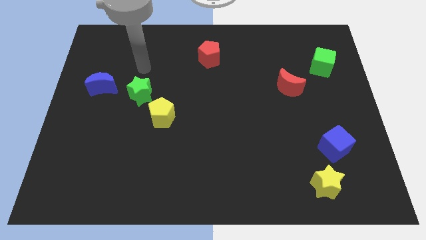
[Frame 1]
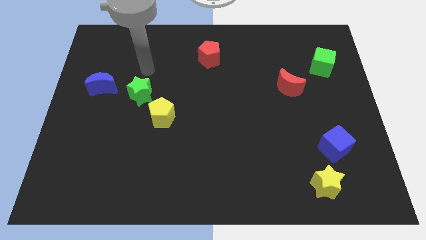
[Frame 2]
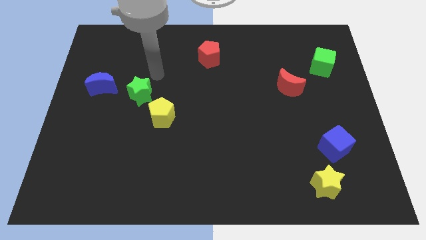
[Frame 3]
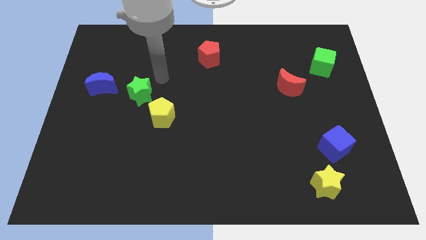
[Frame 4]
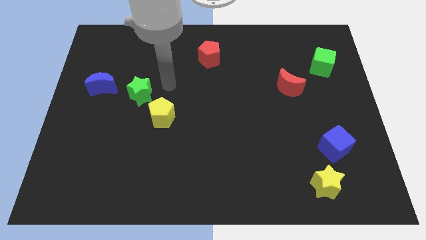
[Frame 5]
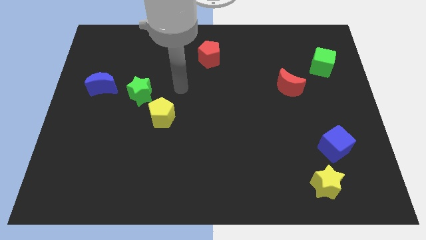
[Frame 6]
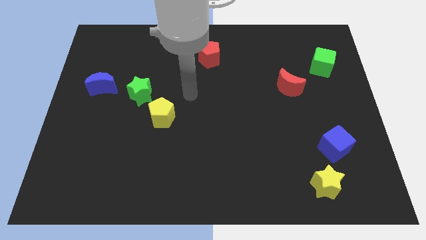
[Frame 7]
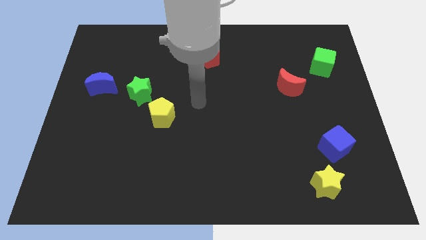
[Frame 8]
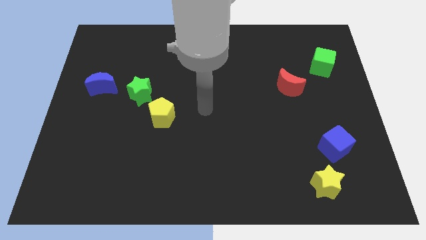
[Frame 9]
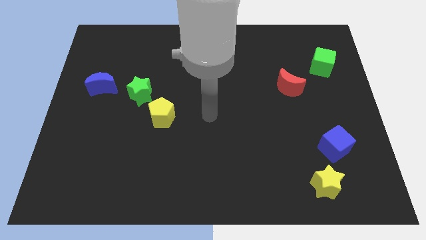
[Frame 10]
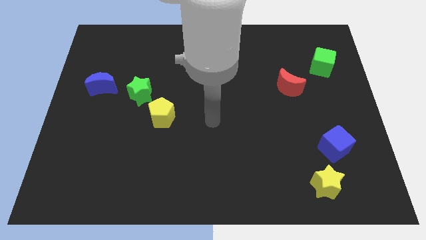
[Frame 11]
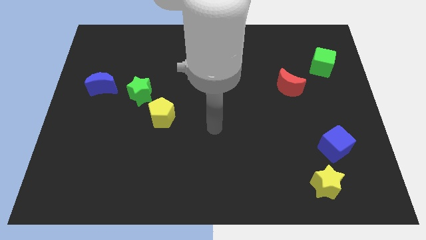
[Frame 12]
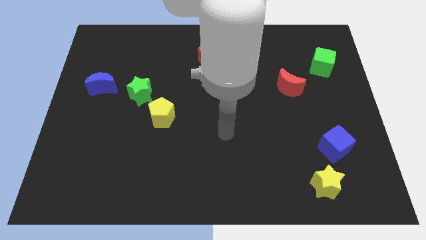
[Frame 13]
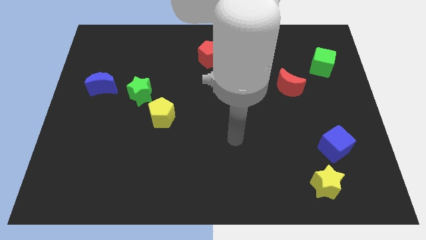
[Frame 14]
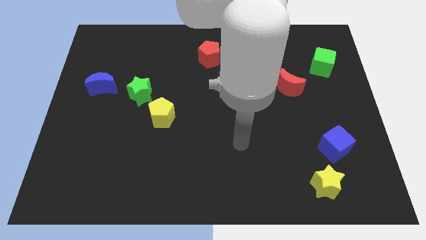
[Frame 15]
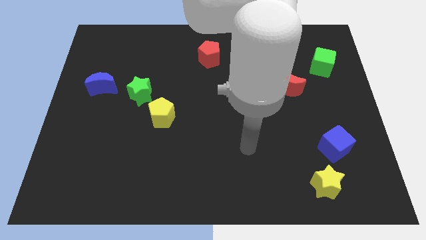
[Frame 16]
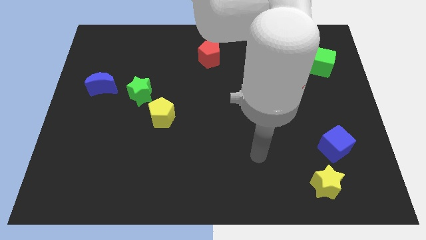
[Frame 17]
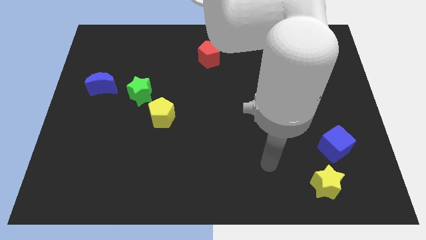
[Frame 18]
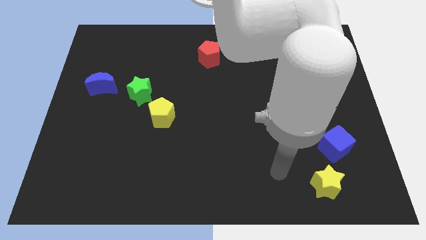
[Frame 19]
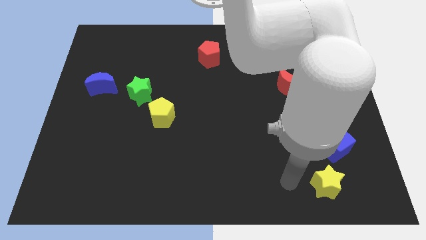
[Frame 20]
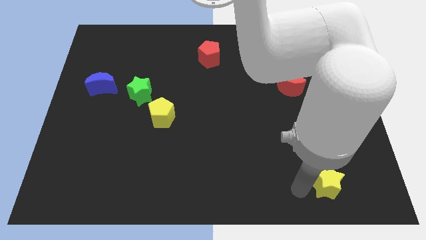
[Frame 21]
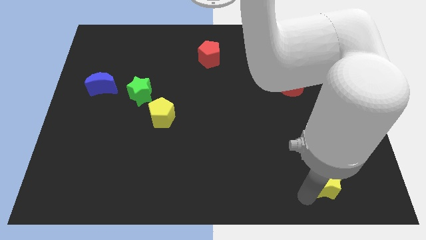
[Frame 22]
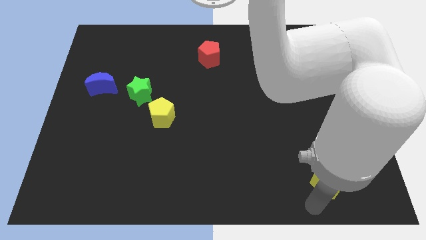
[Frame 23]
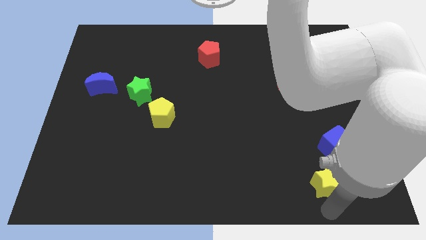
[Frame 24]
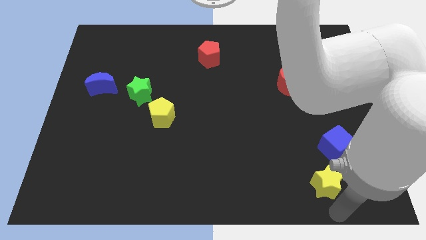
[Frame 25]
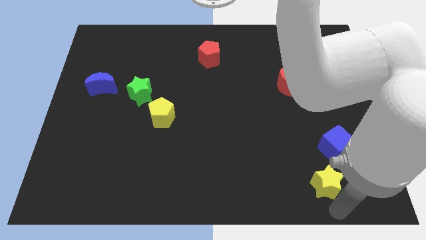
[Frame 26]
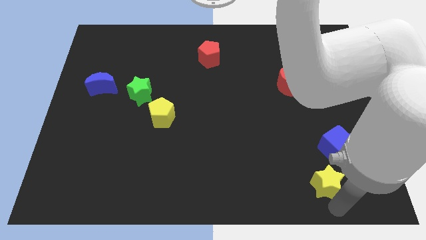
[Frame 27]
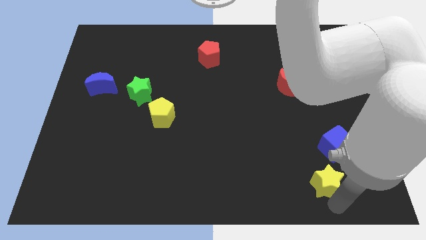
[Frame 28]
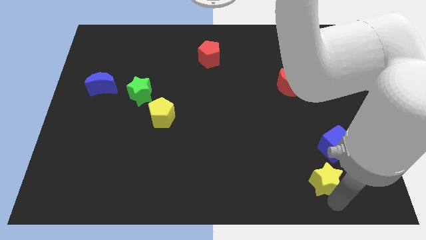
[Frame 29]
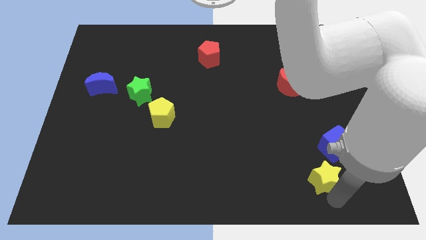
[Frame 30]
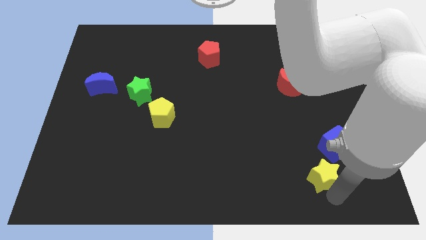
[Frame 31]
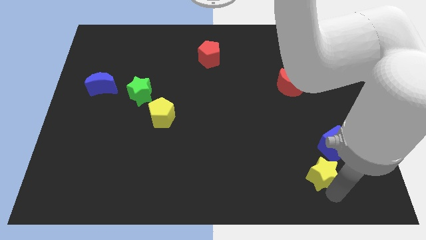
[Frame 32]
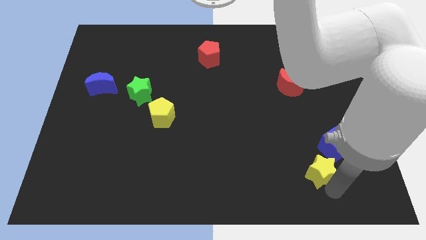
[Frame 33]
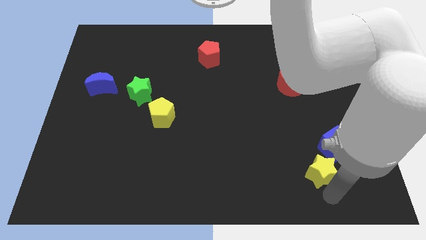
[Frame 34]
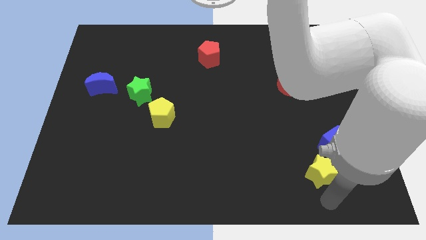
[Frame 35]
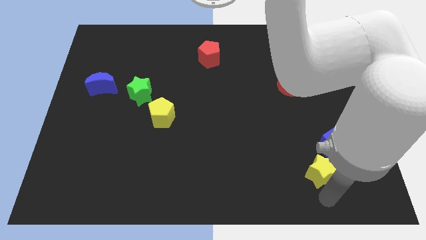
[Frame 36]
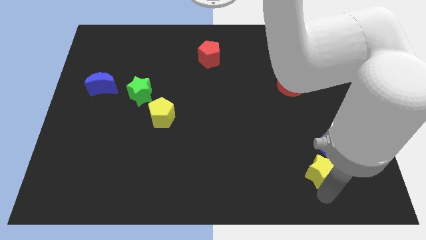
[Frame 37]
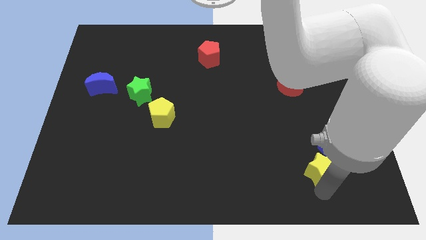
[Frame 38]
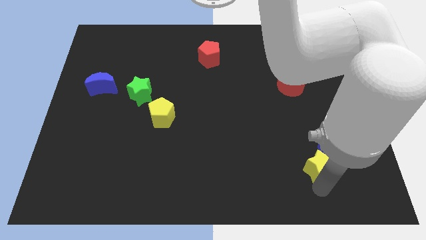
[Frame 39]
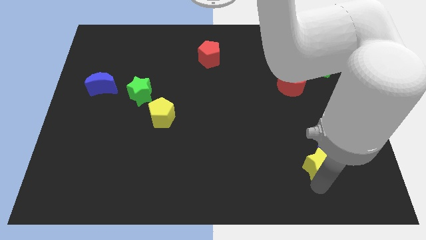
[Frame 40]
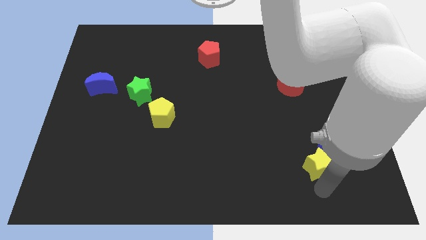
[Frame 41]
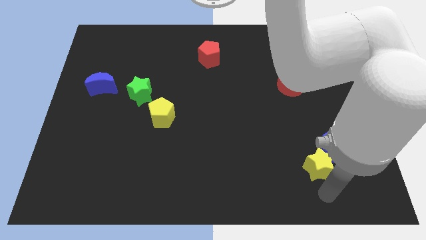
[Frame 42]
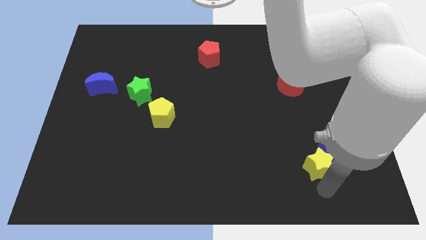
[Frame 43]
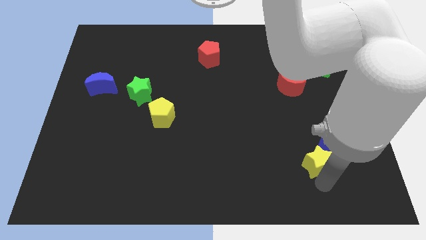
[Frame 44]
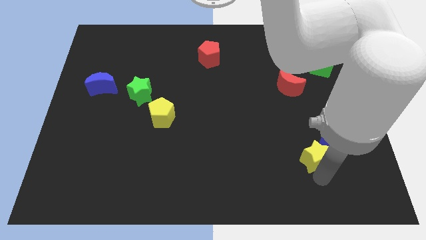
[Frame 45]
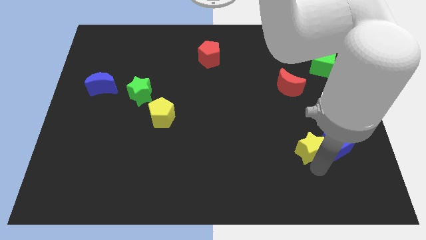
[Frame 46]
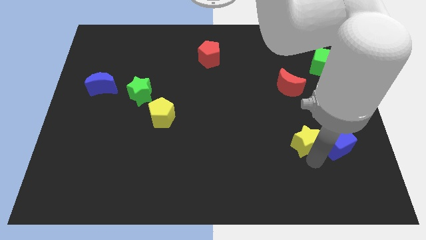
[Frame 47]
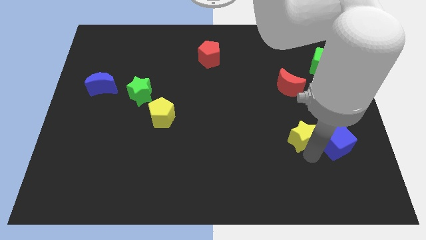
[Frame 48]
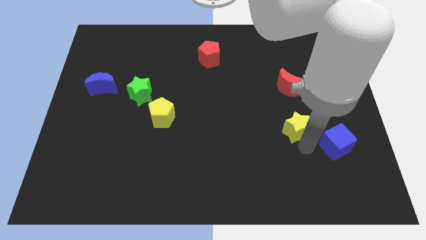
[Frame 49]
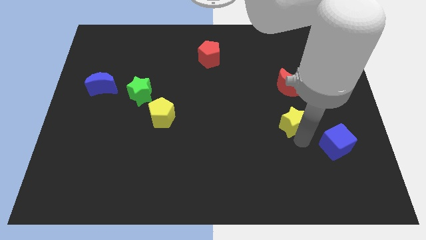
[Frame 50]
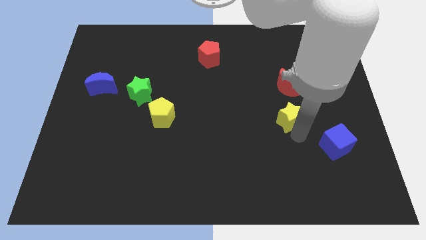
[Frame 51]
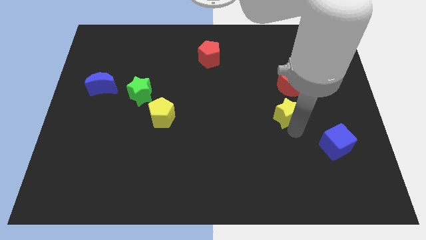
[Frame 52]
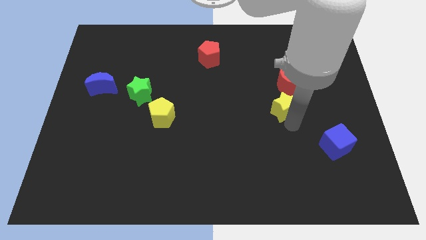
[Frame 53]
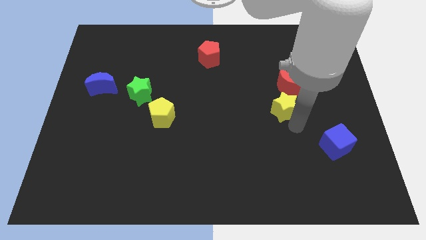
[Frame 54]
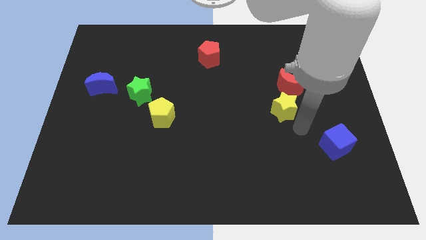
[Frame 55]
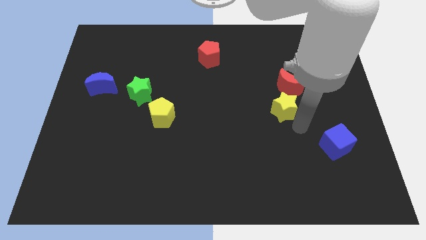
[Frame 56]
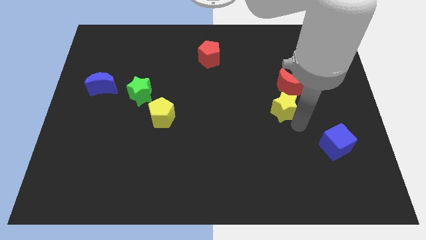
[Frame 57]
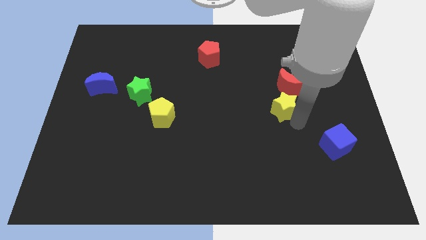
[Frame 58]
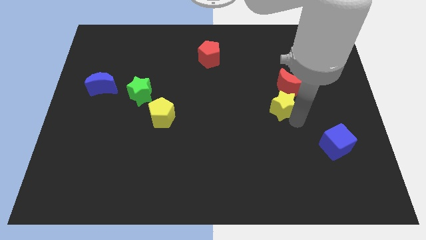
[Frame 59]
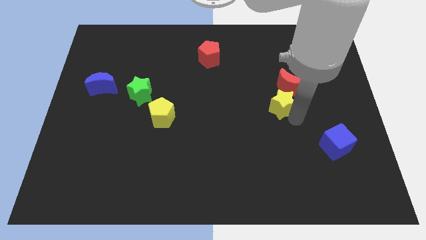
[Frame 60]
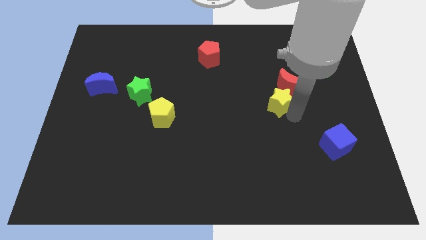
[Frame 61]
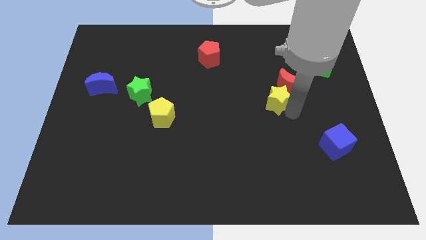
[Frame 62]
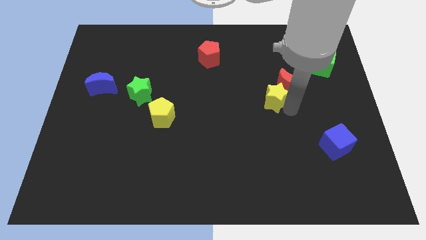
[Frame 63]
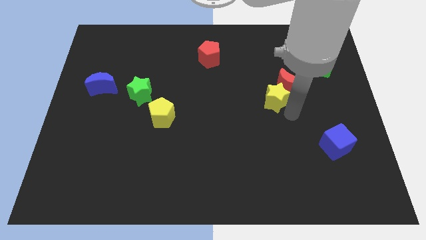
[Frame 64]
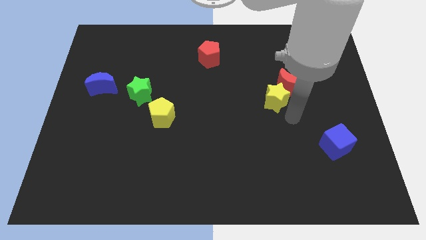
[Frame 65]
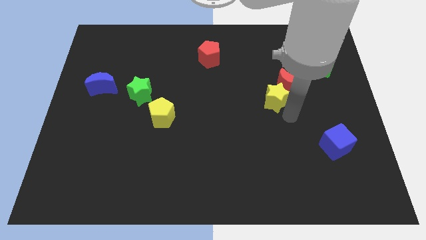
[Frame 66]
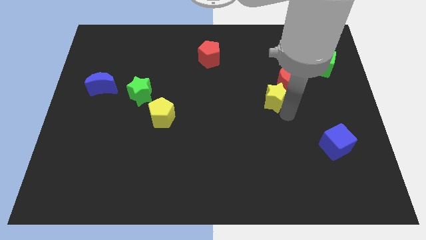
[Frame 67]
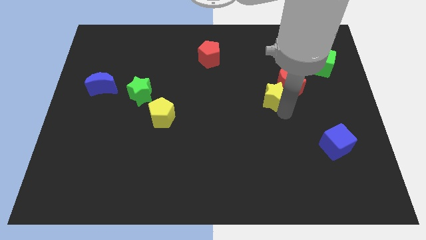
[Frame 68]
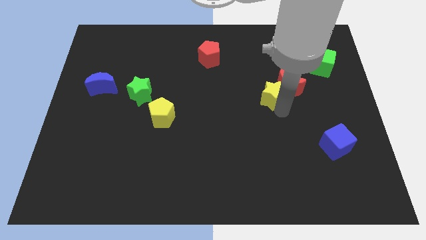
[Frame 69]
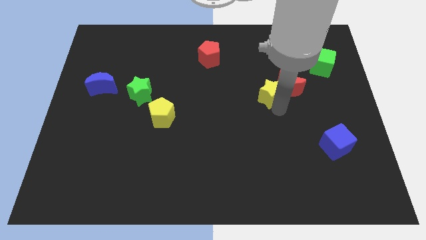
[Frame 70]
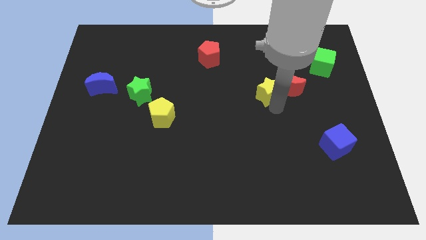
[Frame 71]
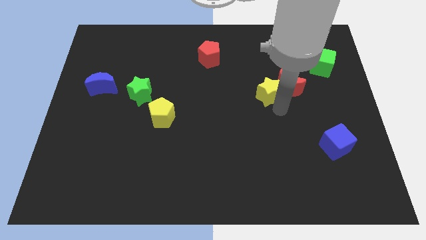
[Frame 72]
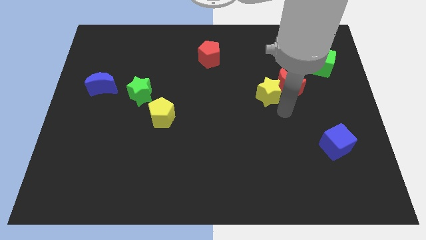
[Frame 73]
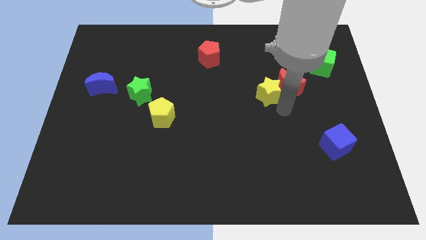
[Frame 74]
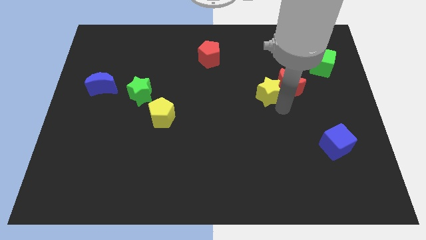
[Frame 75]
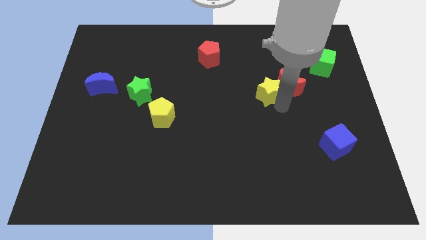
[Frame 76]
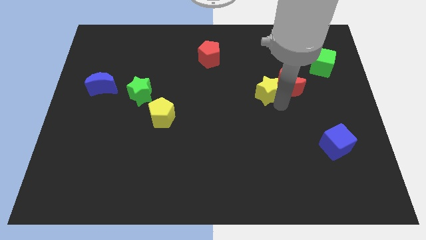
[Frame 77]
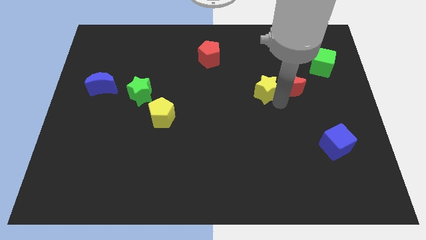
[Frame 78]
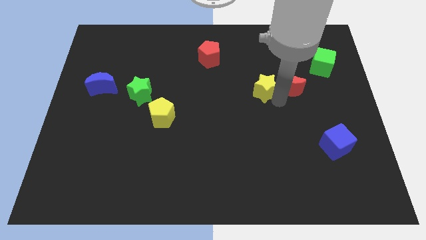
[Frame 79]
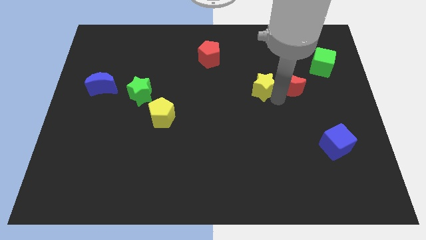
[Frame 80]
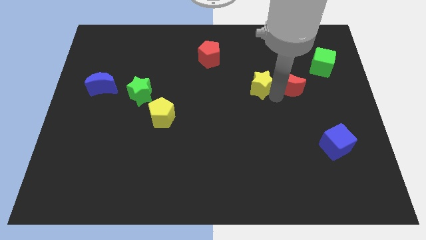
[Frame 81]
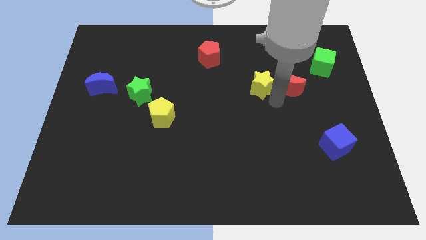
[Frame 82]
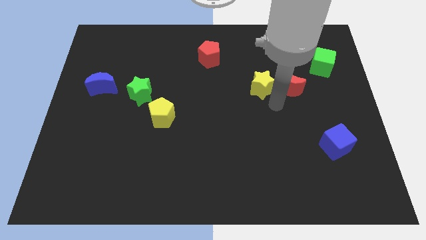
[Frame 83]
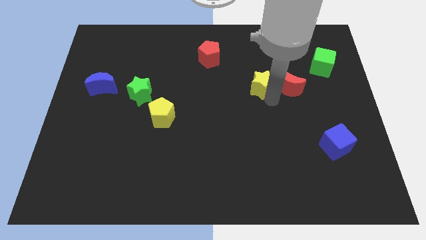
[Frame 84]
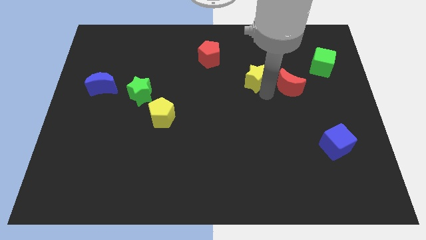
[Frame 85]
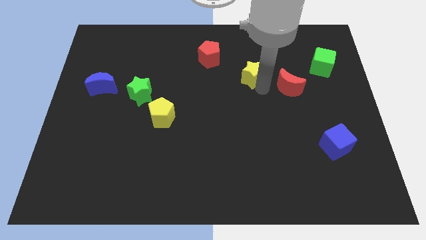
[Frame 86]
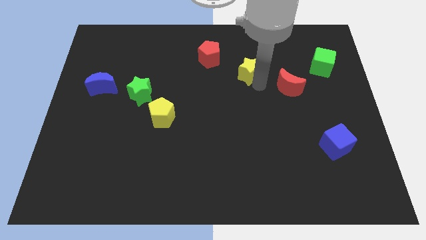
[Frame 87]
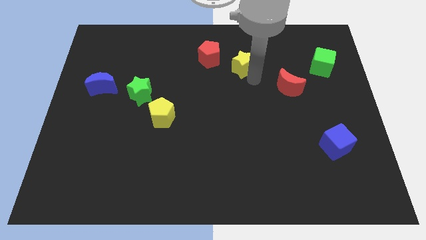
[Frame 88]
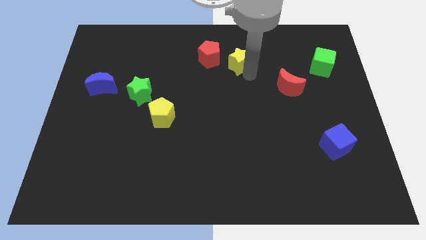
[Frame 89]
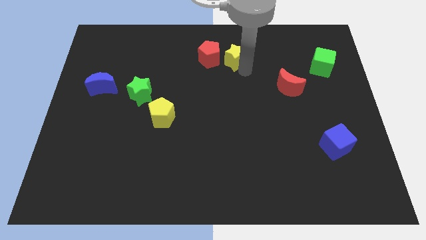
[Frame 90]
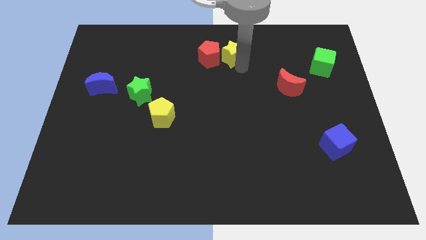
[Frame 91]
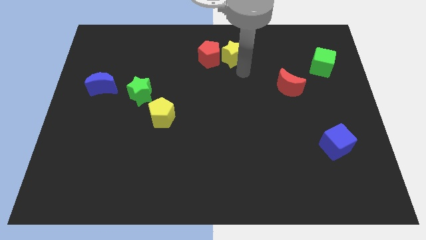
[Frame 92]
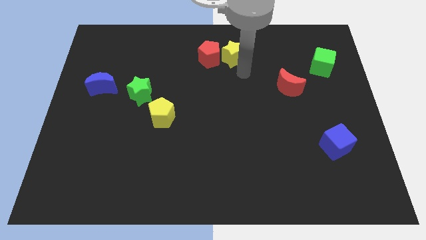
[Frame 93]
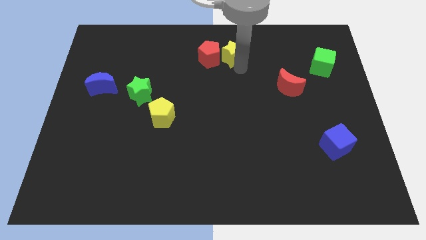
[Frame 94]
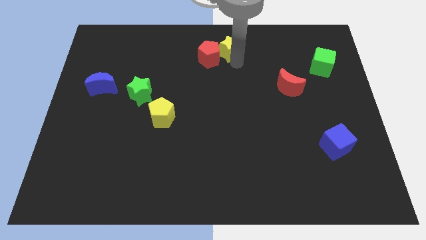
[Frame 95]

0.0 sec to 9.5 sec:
move the yellow star to the towards your base
